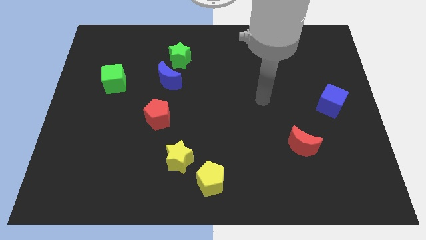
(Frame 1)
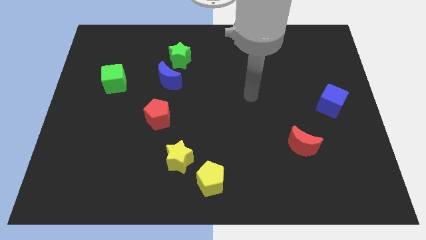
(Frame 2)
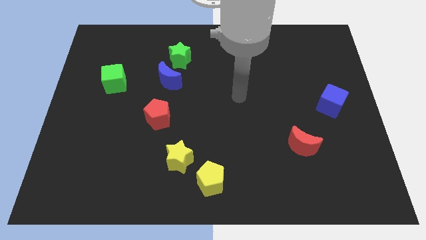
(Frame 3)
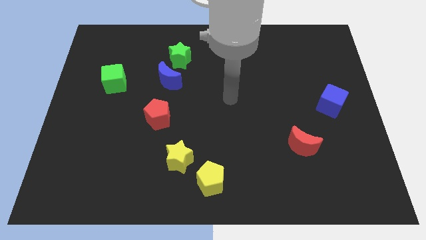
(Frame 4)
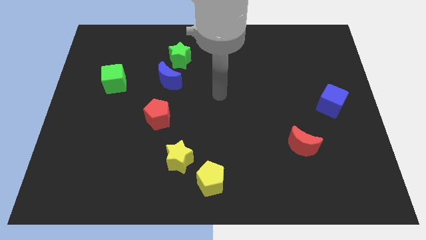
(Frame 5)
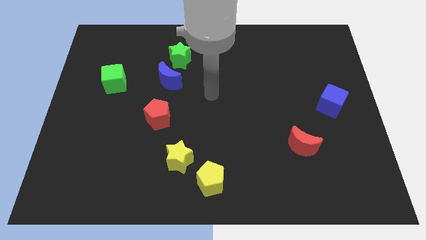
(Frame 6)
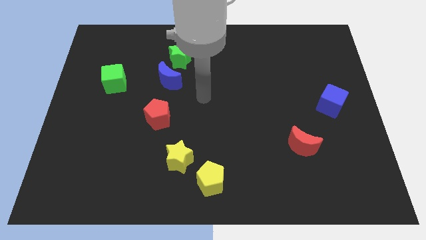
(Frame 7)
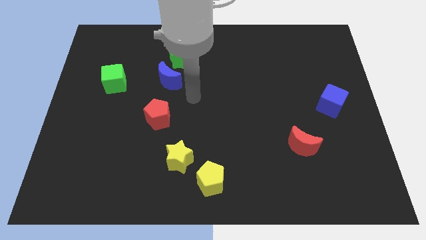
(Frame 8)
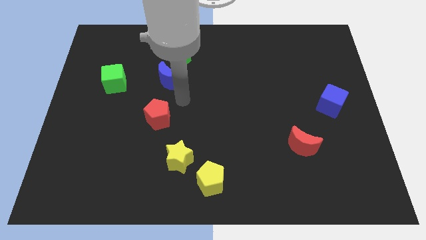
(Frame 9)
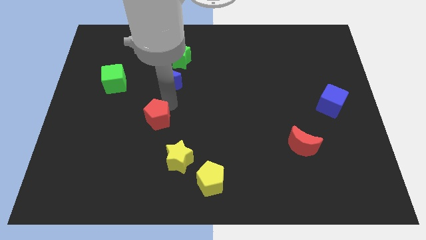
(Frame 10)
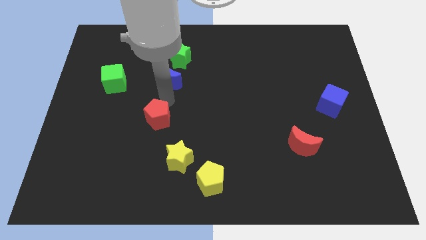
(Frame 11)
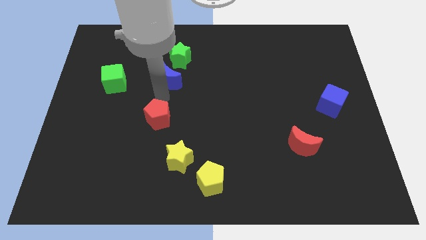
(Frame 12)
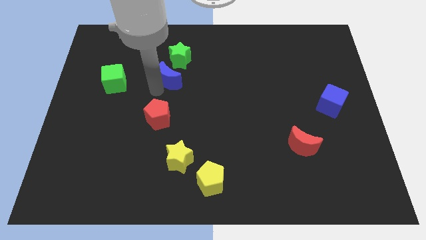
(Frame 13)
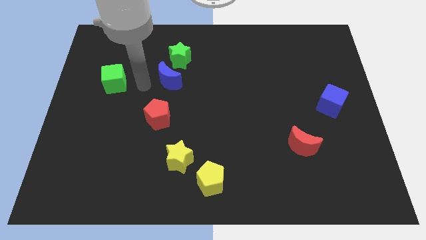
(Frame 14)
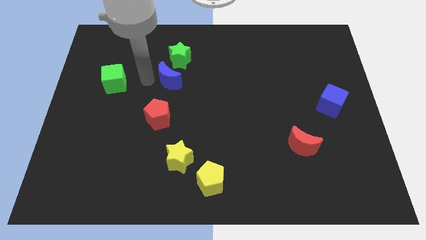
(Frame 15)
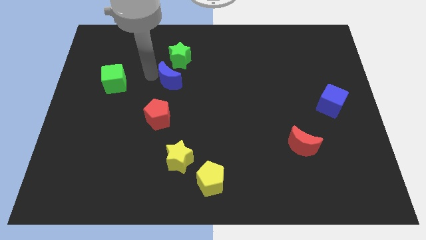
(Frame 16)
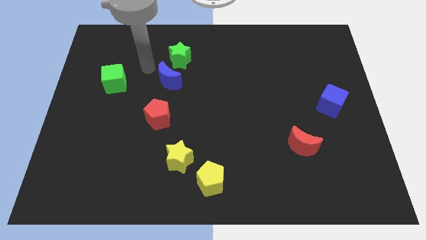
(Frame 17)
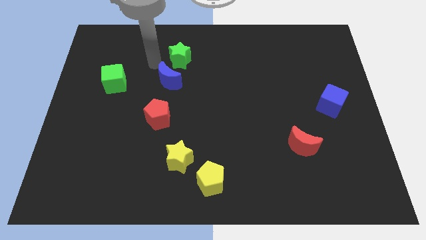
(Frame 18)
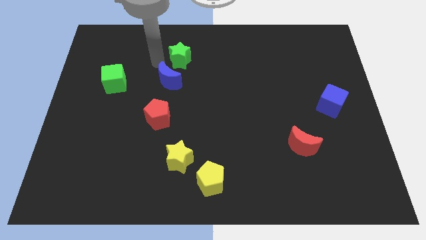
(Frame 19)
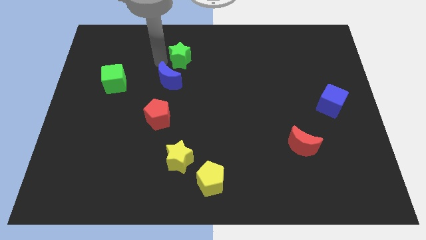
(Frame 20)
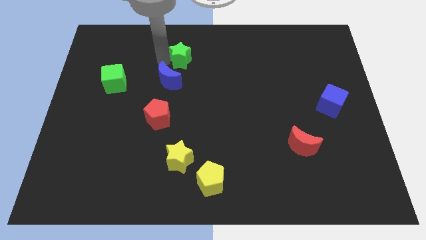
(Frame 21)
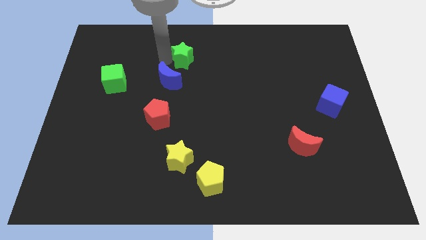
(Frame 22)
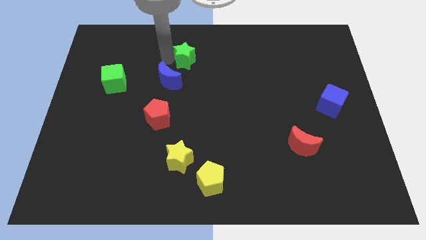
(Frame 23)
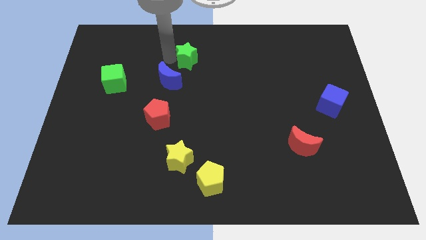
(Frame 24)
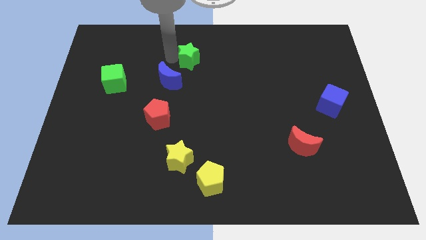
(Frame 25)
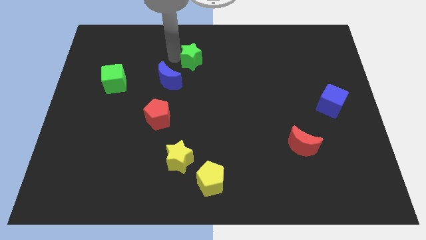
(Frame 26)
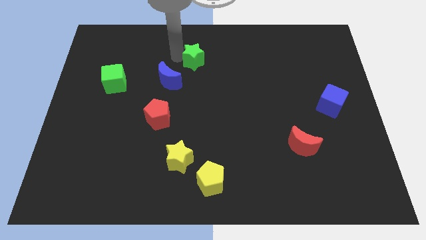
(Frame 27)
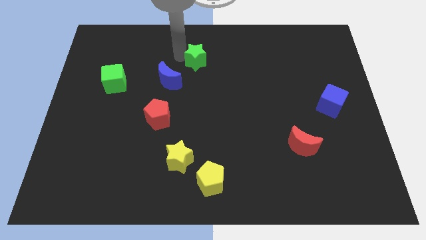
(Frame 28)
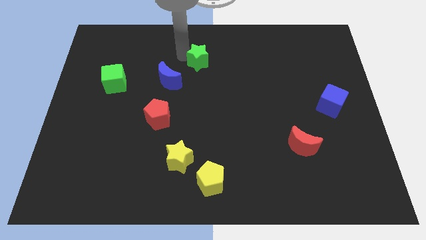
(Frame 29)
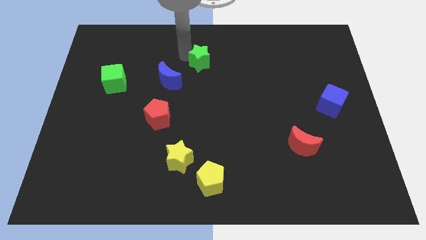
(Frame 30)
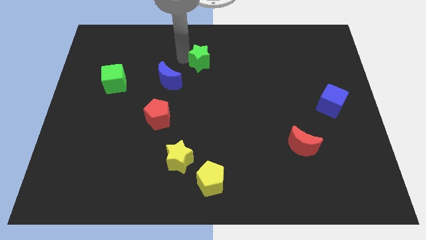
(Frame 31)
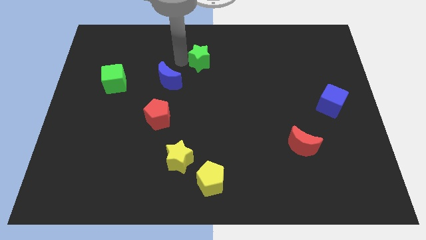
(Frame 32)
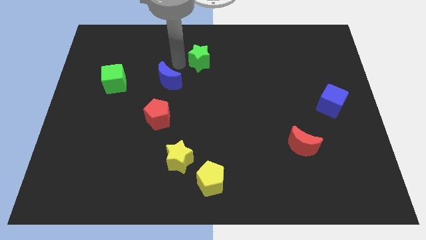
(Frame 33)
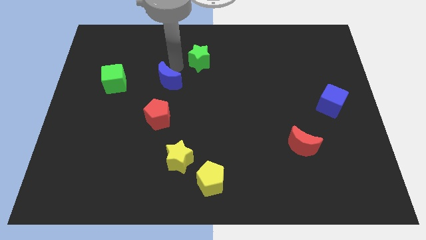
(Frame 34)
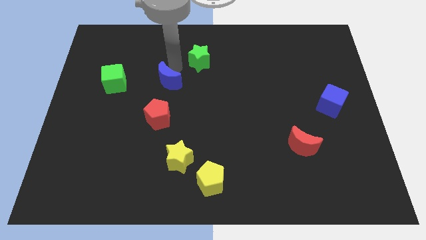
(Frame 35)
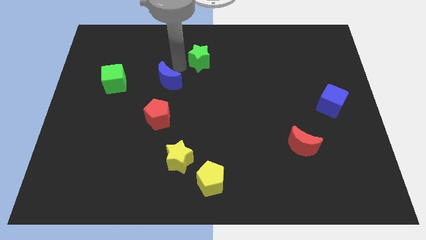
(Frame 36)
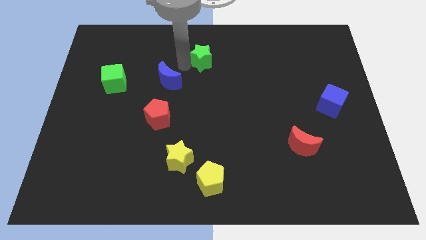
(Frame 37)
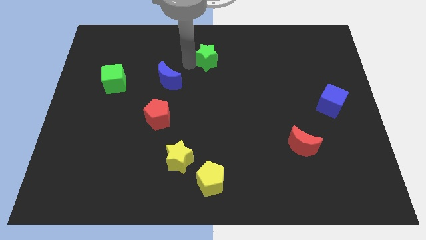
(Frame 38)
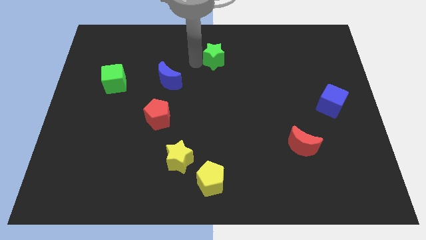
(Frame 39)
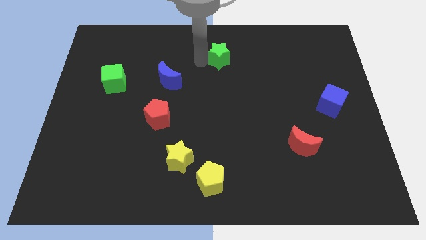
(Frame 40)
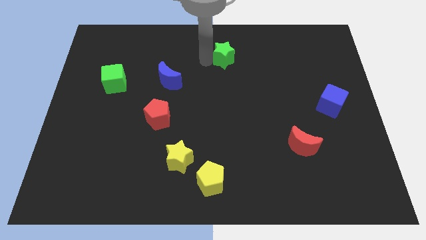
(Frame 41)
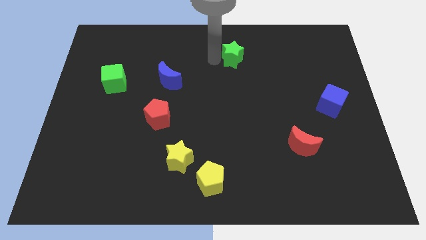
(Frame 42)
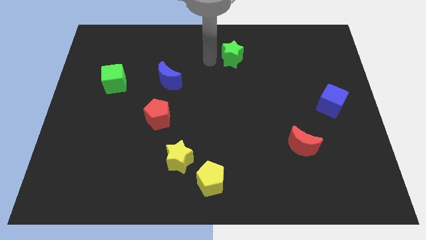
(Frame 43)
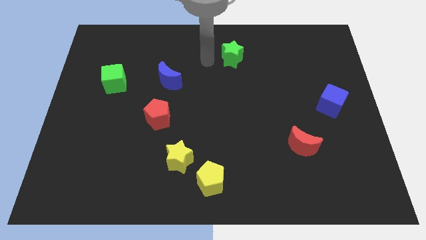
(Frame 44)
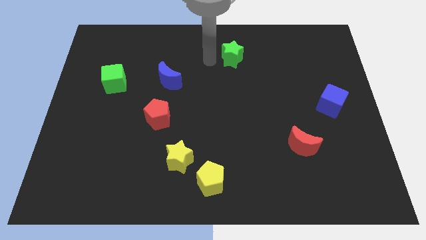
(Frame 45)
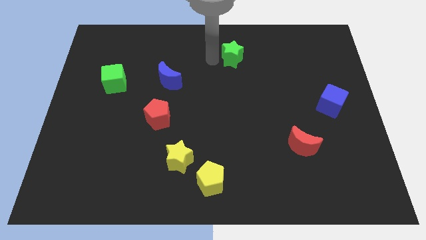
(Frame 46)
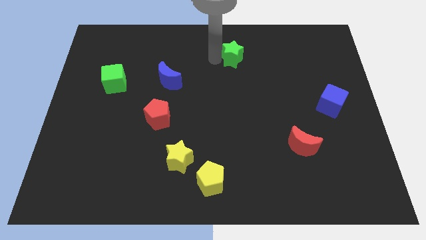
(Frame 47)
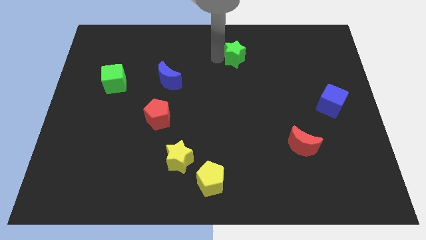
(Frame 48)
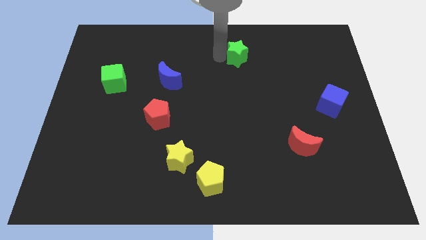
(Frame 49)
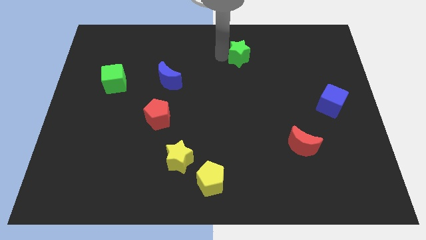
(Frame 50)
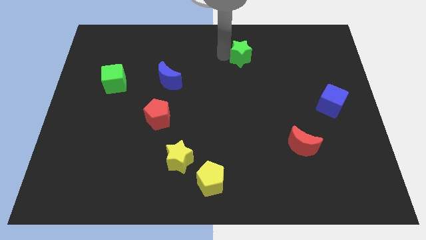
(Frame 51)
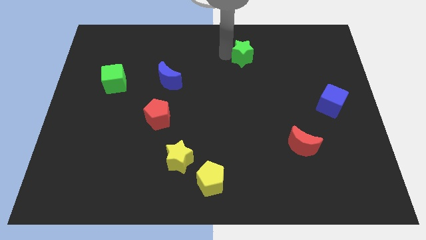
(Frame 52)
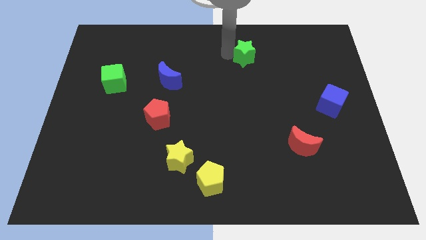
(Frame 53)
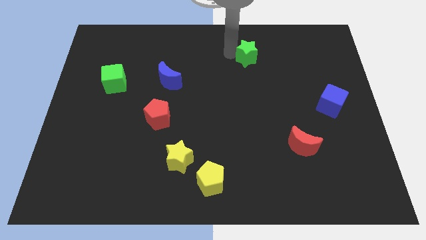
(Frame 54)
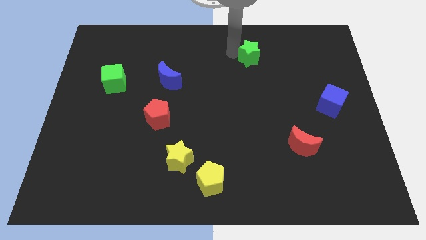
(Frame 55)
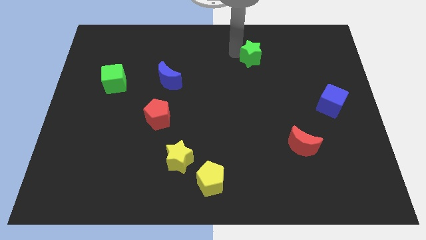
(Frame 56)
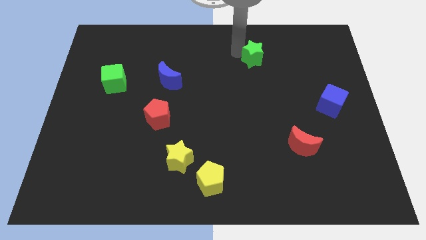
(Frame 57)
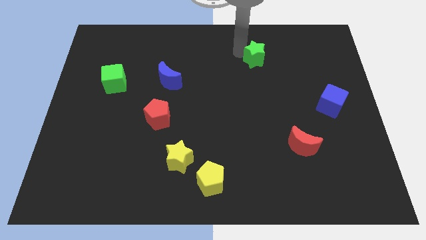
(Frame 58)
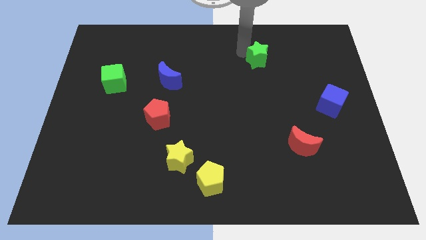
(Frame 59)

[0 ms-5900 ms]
slide the green star to the right

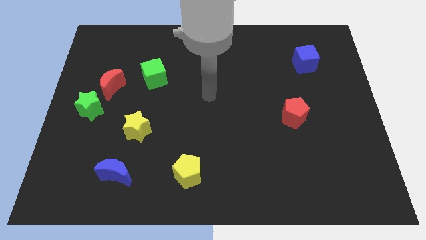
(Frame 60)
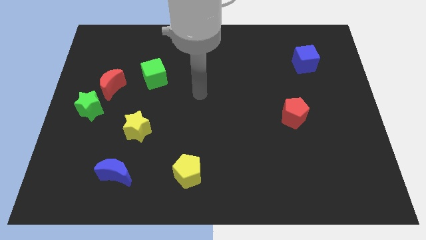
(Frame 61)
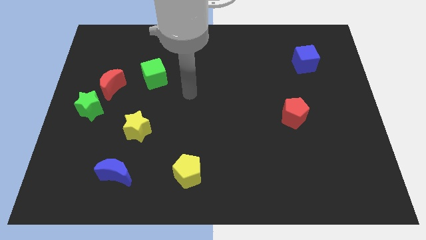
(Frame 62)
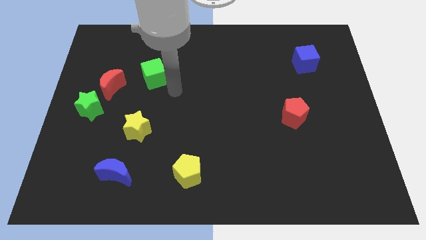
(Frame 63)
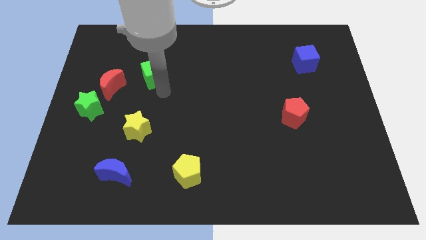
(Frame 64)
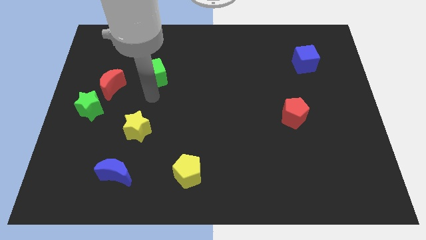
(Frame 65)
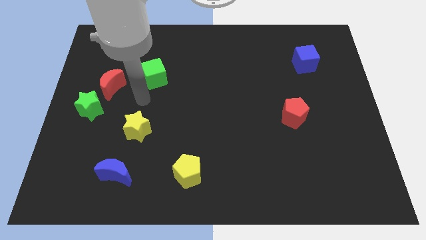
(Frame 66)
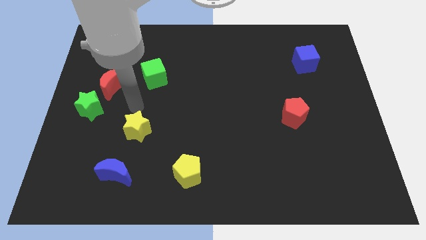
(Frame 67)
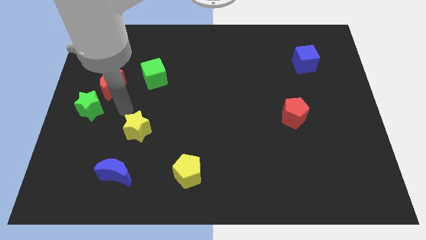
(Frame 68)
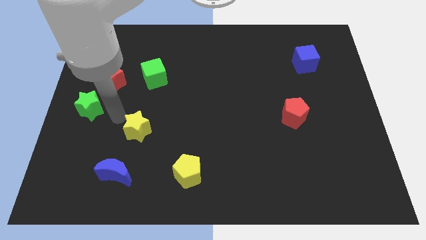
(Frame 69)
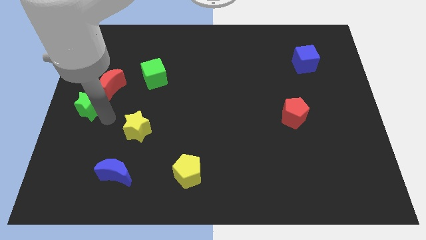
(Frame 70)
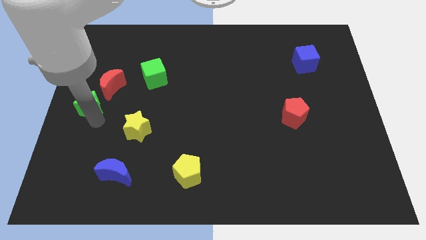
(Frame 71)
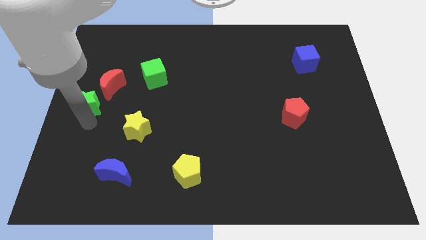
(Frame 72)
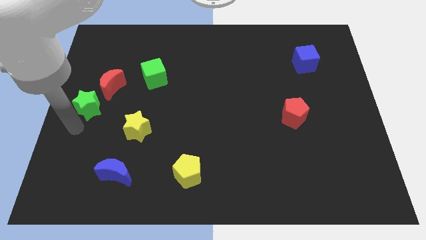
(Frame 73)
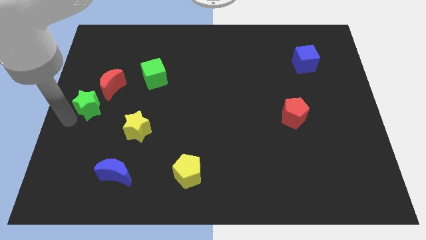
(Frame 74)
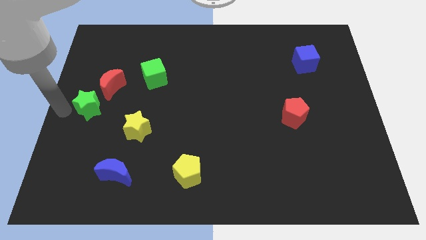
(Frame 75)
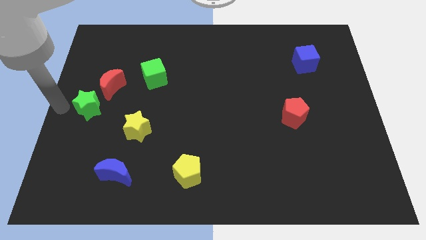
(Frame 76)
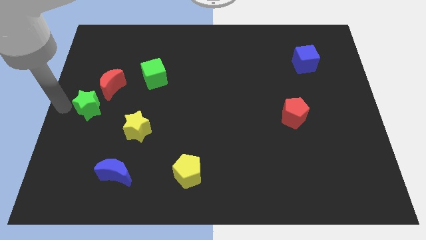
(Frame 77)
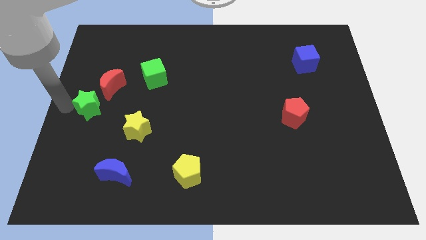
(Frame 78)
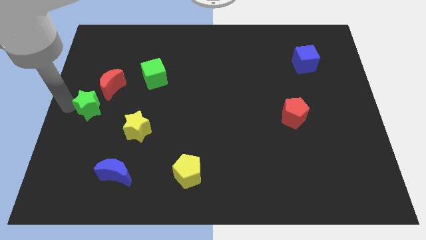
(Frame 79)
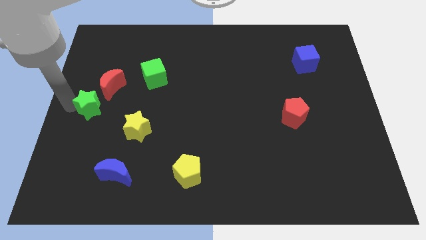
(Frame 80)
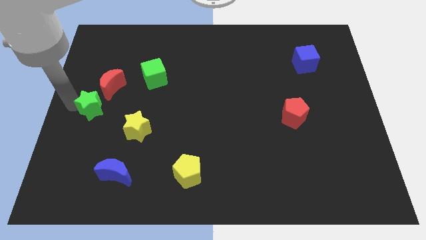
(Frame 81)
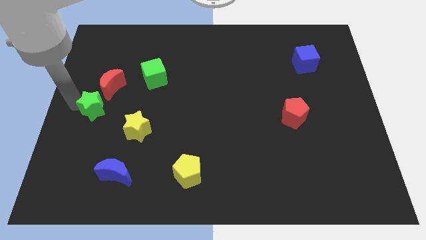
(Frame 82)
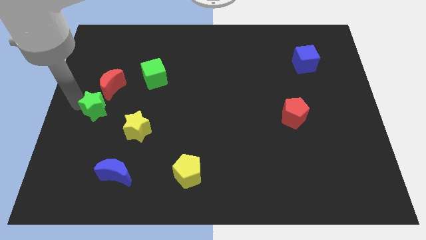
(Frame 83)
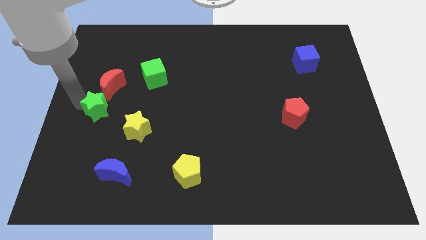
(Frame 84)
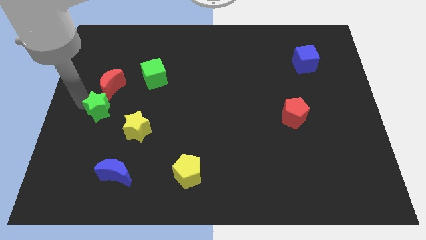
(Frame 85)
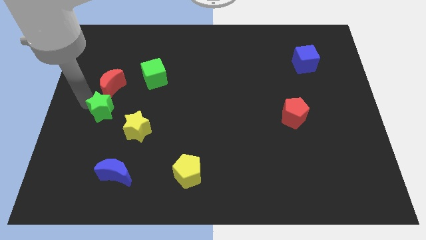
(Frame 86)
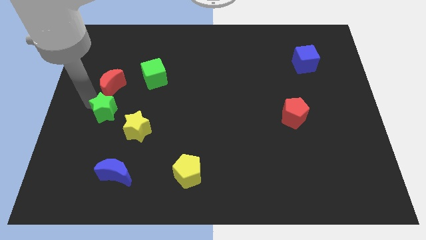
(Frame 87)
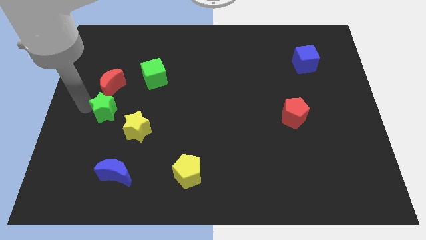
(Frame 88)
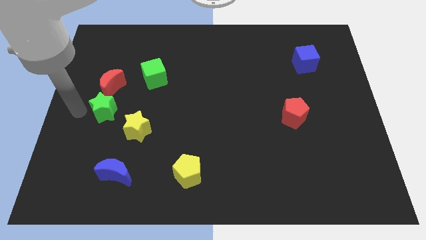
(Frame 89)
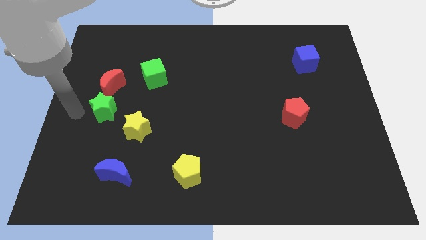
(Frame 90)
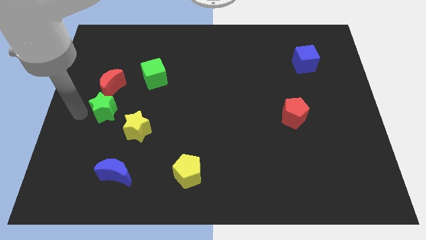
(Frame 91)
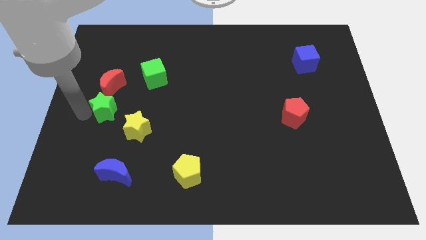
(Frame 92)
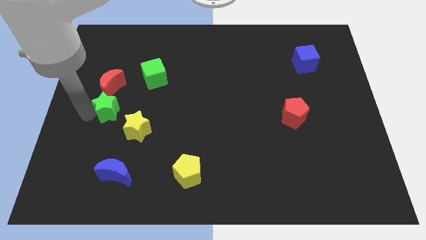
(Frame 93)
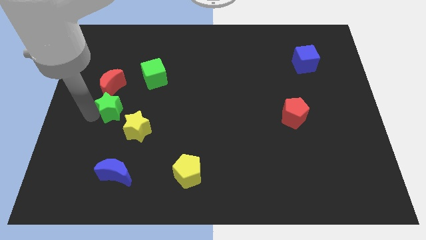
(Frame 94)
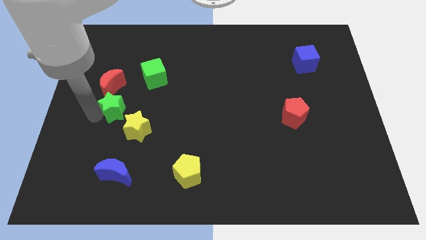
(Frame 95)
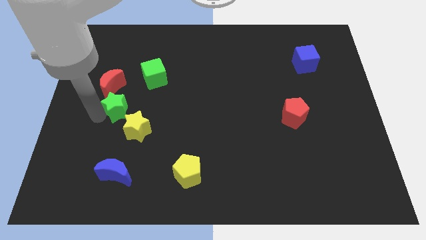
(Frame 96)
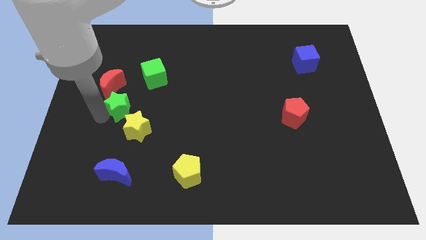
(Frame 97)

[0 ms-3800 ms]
slide the green star a little to the right
